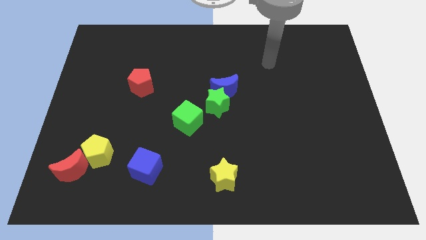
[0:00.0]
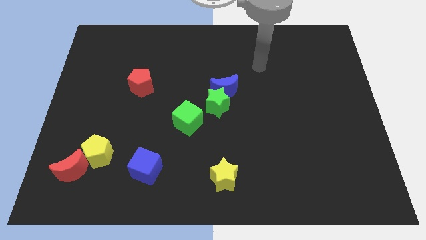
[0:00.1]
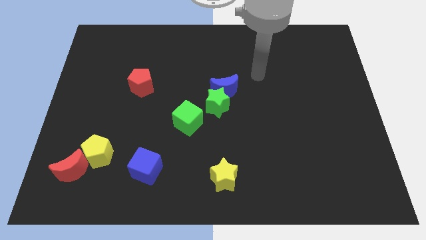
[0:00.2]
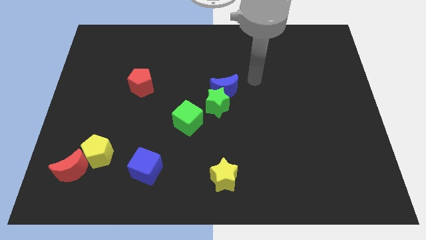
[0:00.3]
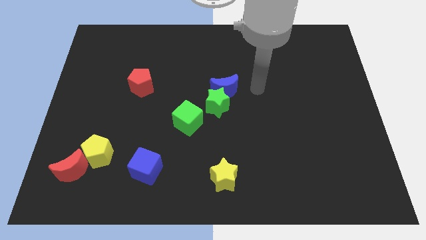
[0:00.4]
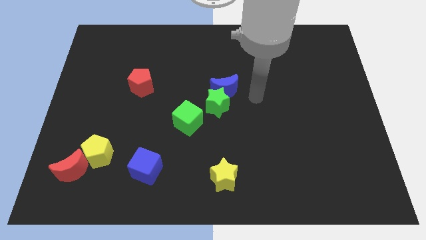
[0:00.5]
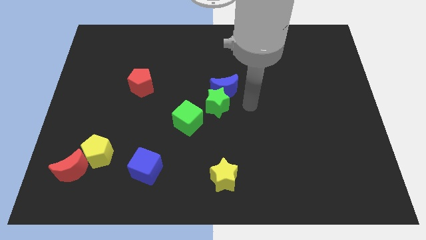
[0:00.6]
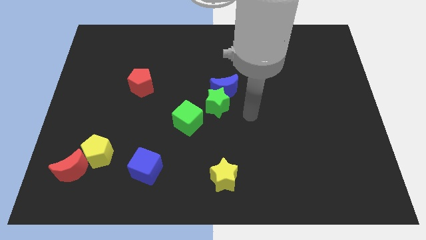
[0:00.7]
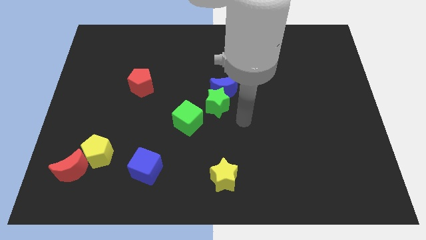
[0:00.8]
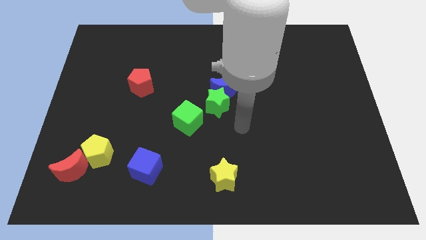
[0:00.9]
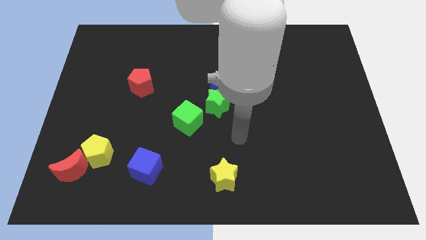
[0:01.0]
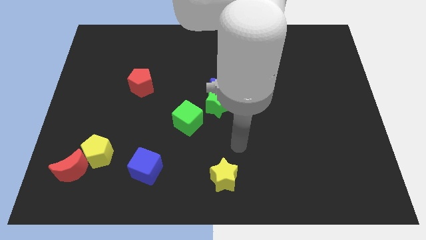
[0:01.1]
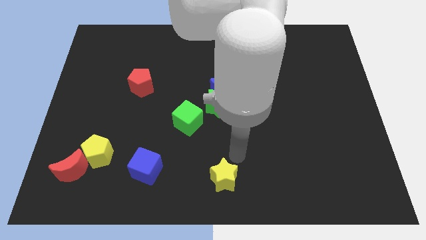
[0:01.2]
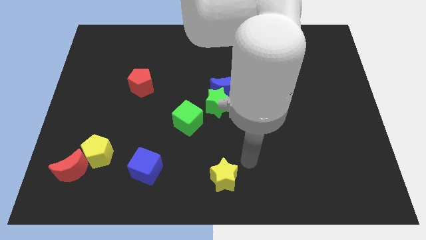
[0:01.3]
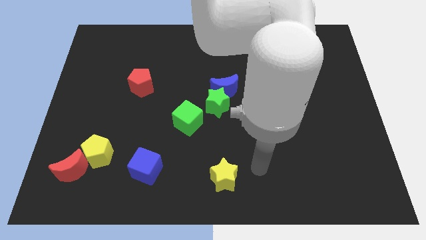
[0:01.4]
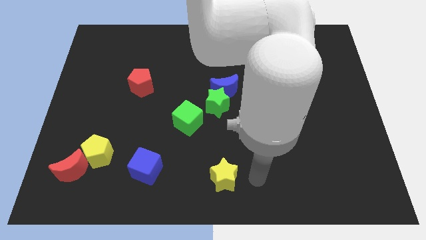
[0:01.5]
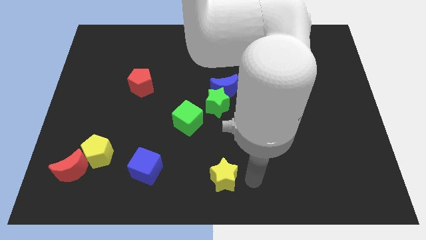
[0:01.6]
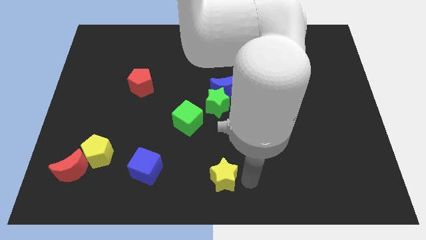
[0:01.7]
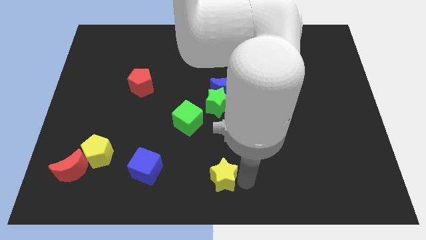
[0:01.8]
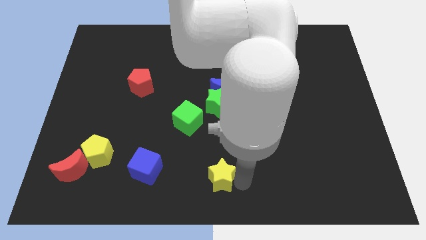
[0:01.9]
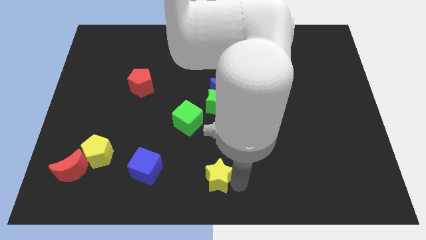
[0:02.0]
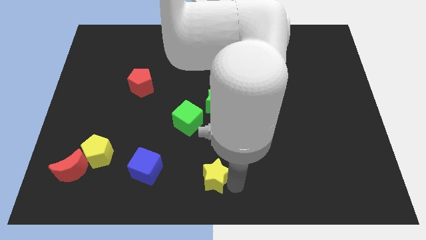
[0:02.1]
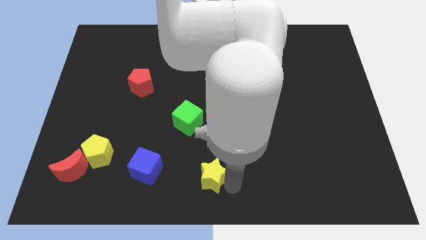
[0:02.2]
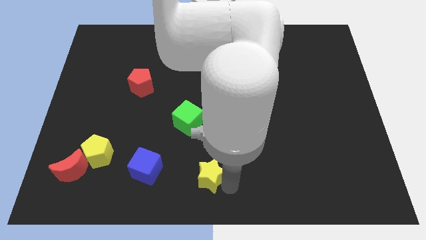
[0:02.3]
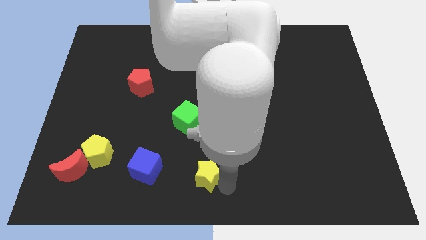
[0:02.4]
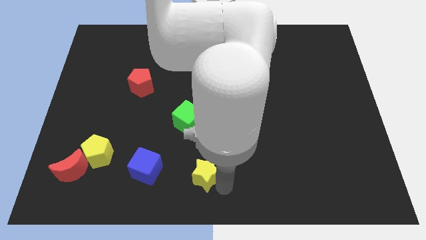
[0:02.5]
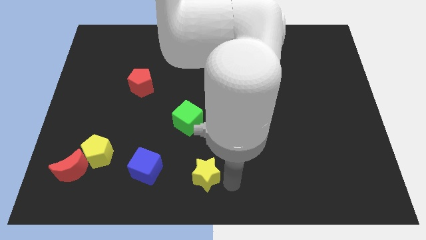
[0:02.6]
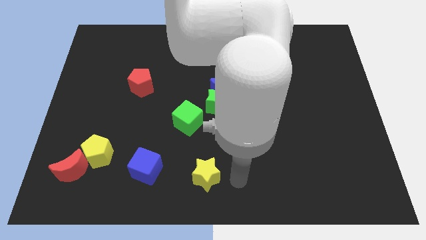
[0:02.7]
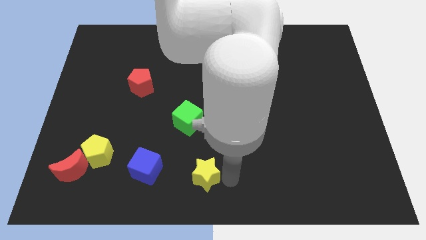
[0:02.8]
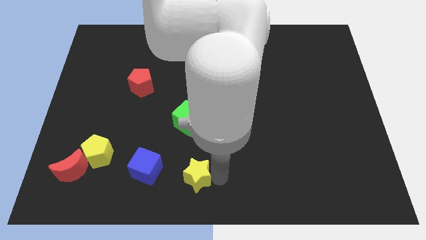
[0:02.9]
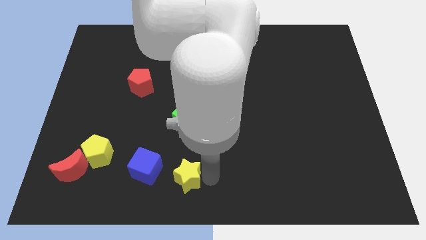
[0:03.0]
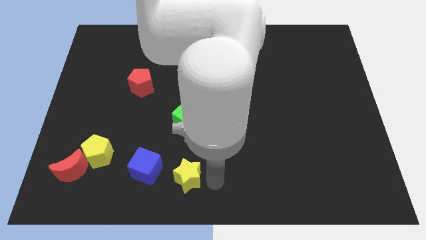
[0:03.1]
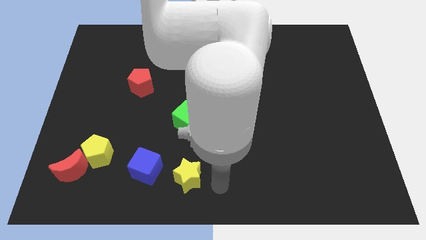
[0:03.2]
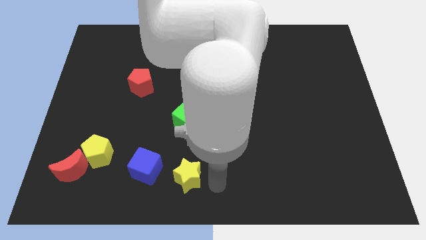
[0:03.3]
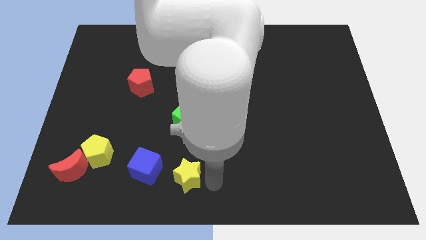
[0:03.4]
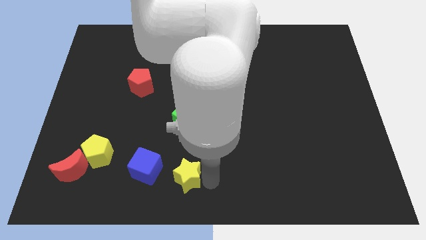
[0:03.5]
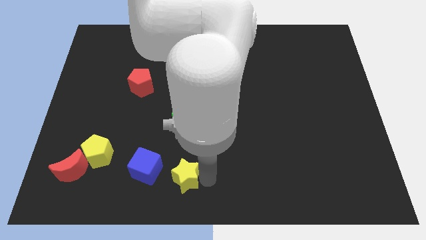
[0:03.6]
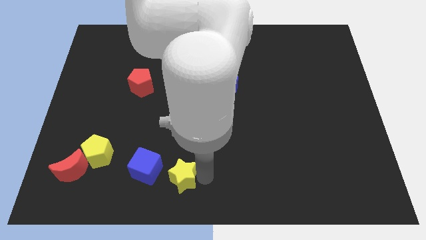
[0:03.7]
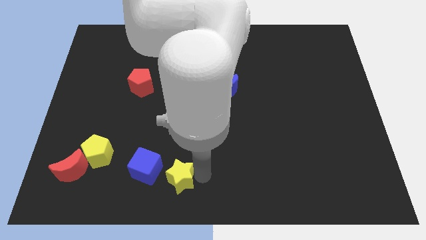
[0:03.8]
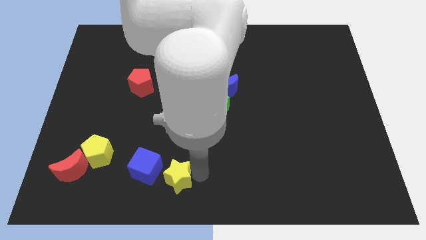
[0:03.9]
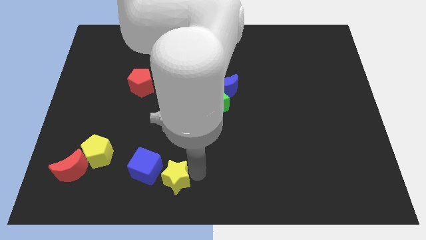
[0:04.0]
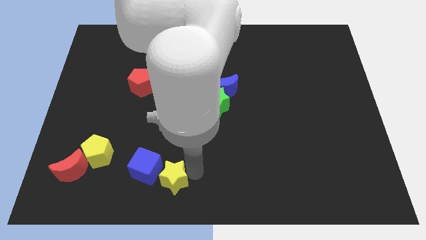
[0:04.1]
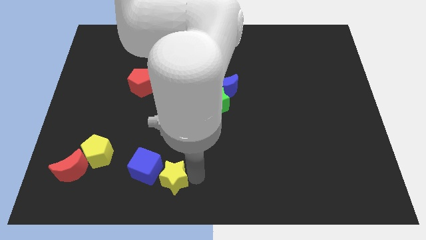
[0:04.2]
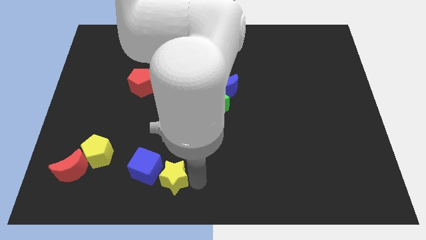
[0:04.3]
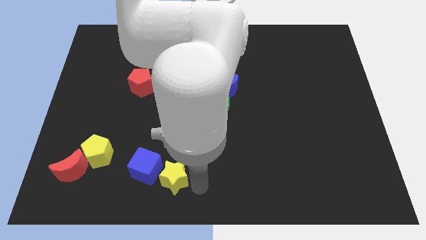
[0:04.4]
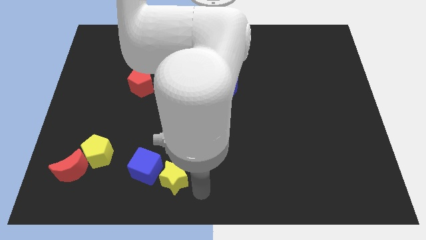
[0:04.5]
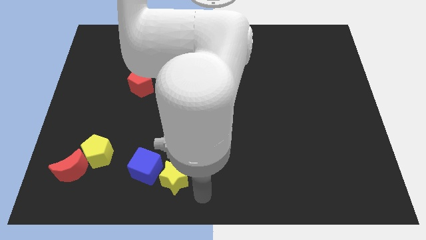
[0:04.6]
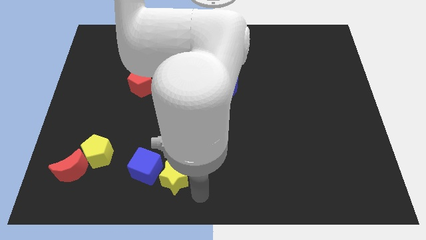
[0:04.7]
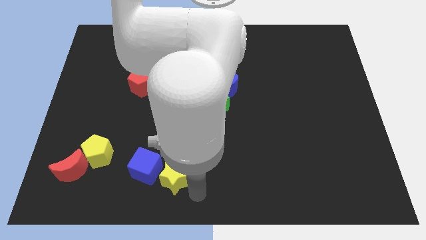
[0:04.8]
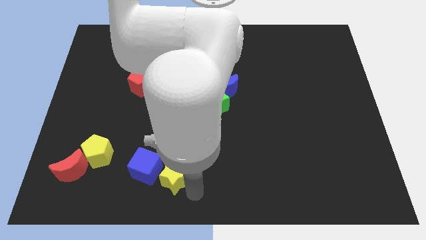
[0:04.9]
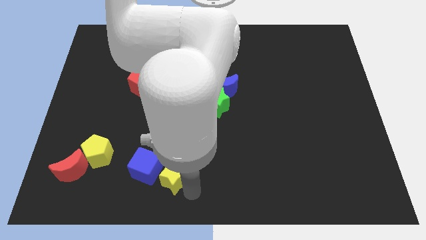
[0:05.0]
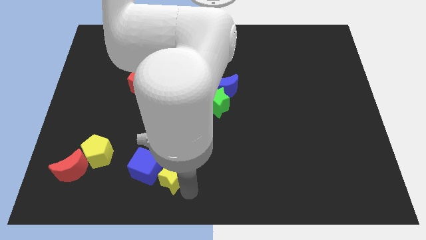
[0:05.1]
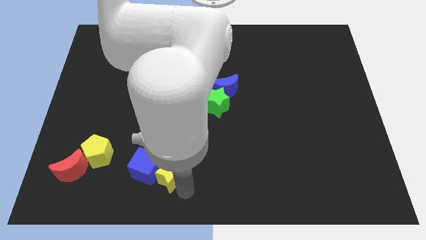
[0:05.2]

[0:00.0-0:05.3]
move the yellow star close to the blue cube

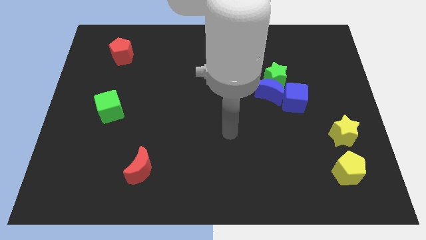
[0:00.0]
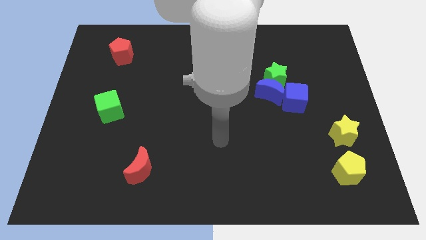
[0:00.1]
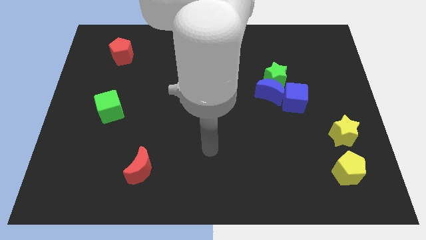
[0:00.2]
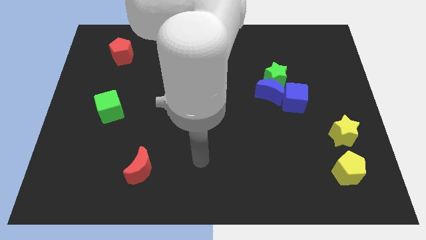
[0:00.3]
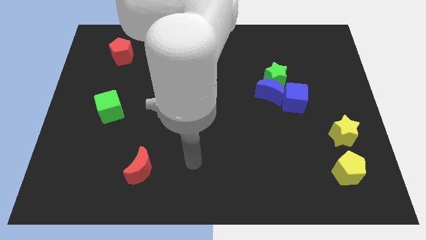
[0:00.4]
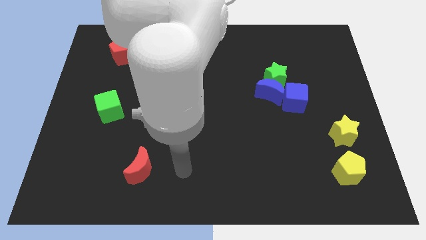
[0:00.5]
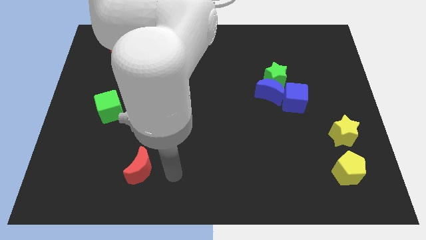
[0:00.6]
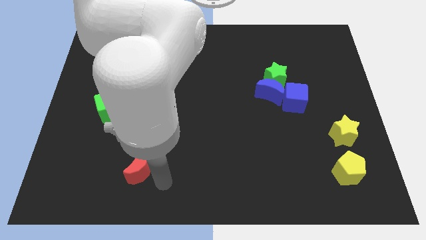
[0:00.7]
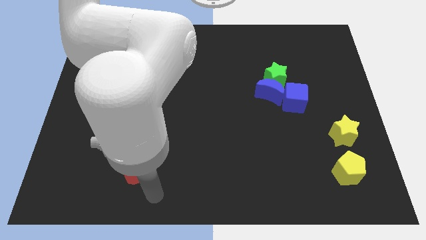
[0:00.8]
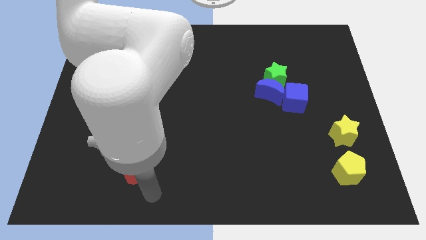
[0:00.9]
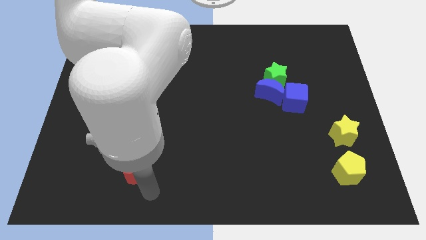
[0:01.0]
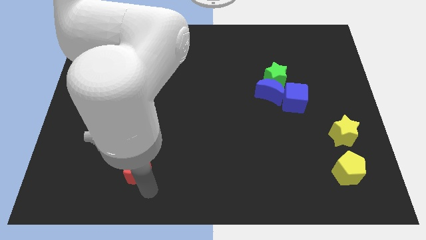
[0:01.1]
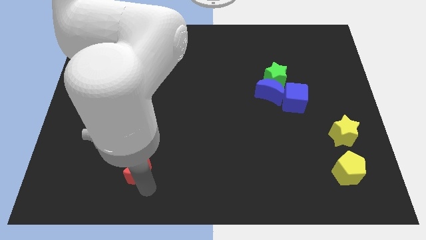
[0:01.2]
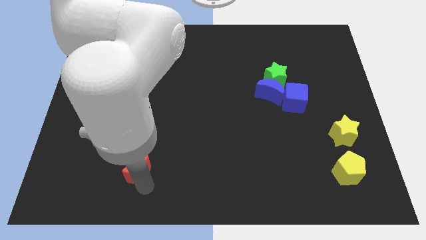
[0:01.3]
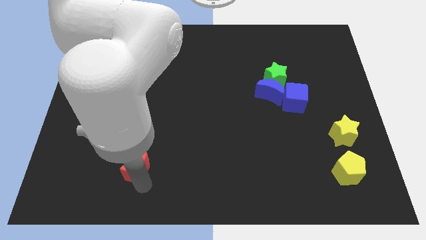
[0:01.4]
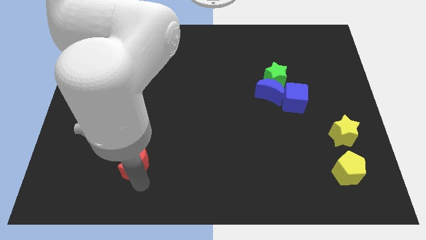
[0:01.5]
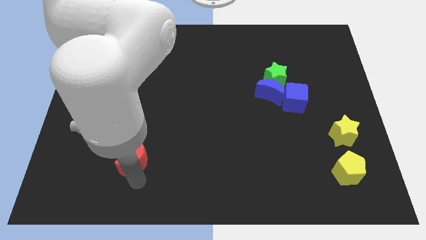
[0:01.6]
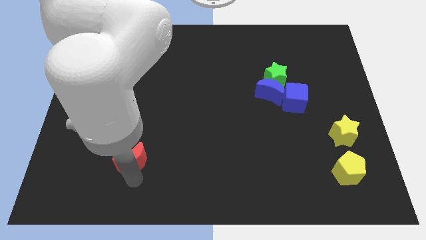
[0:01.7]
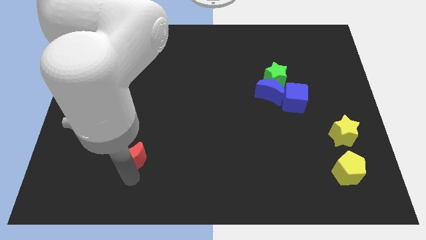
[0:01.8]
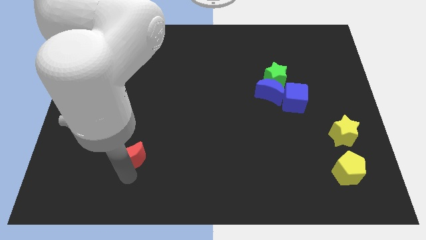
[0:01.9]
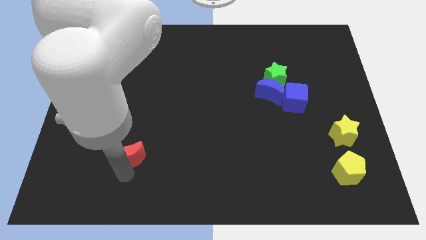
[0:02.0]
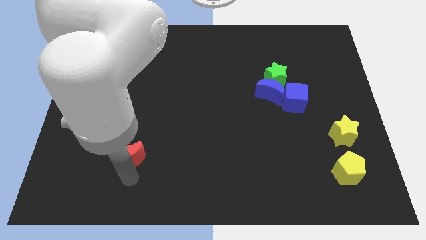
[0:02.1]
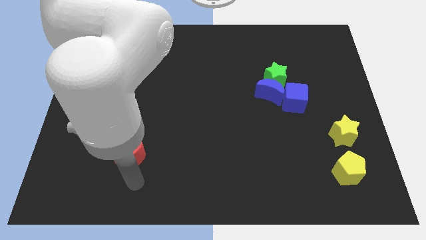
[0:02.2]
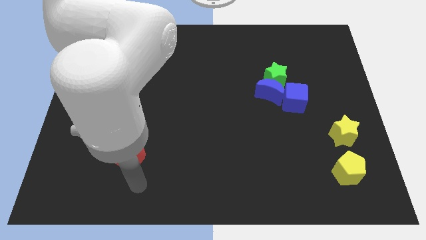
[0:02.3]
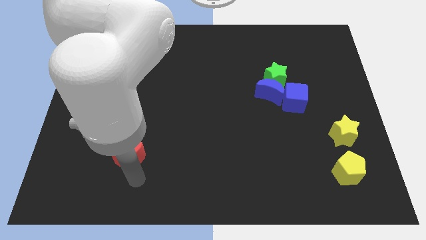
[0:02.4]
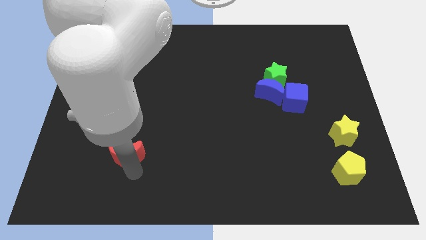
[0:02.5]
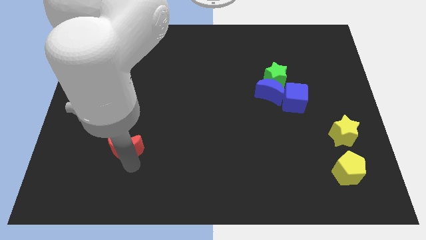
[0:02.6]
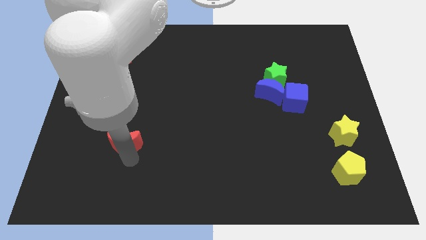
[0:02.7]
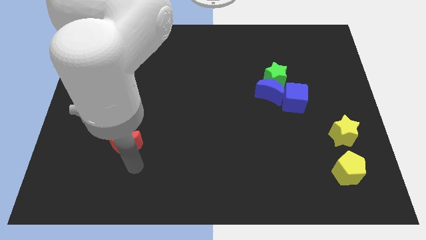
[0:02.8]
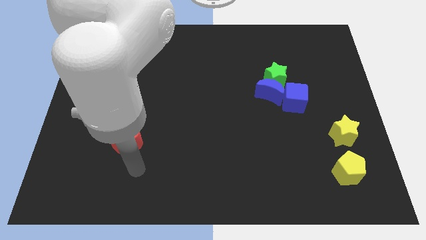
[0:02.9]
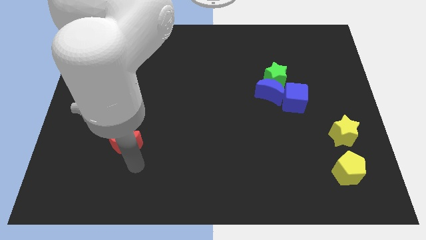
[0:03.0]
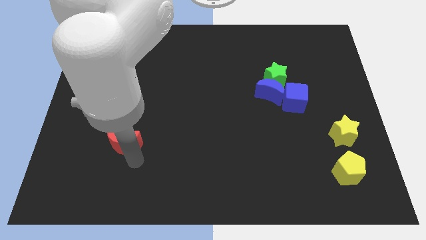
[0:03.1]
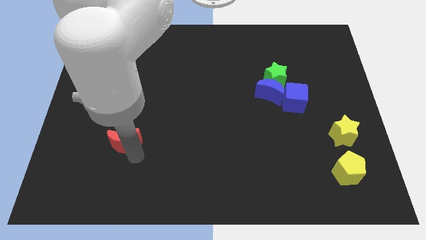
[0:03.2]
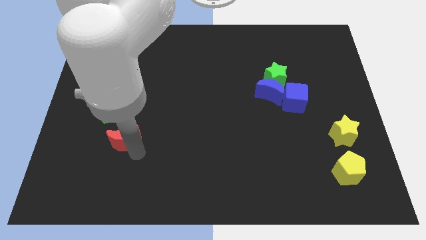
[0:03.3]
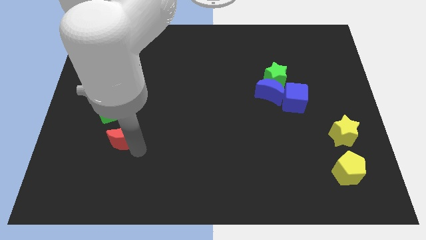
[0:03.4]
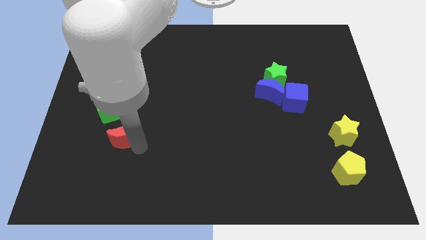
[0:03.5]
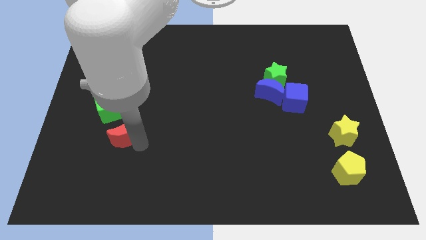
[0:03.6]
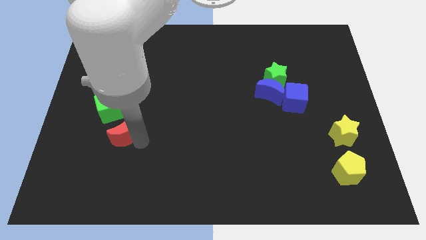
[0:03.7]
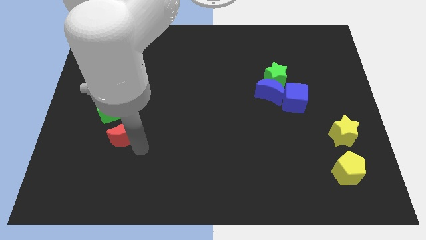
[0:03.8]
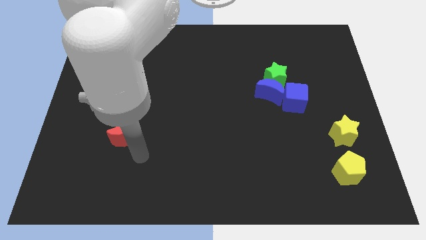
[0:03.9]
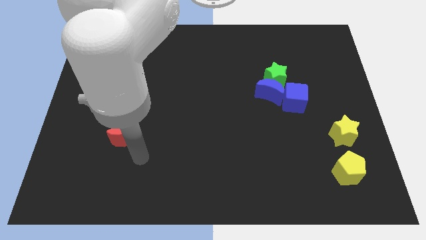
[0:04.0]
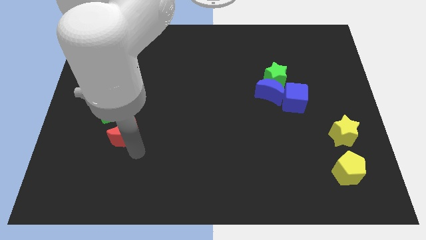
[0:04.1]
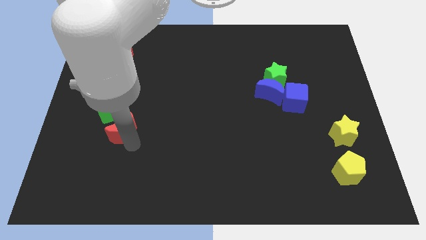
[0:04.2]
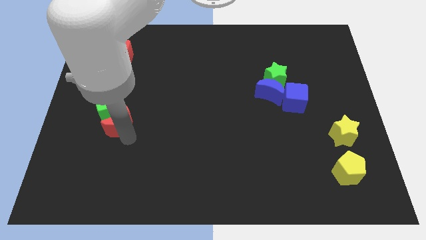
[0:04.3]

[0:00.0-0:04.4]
slide the red moon towards the green cube
